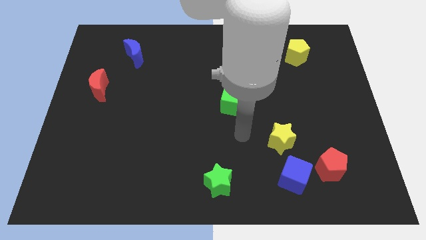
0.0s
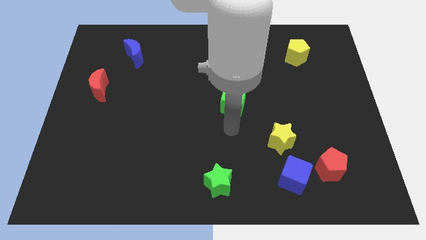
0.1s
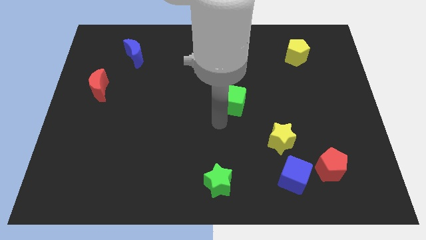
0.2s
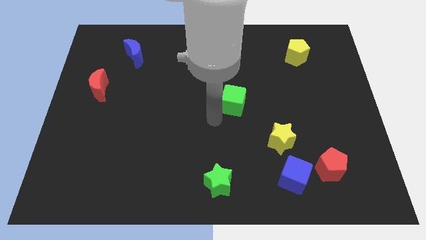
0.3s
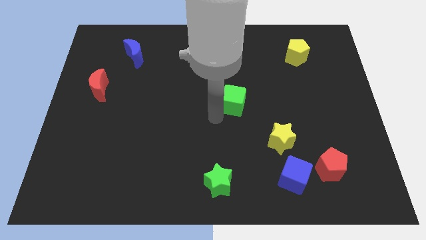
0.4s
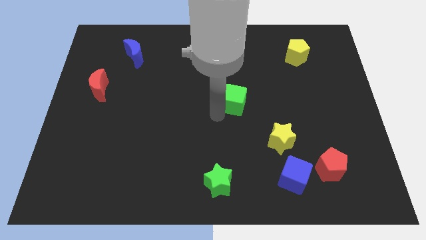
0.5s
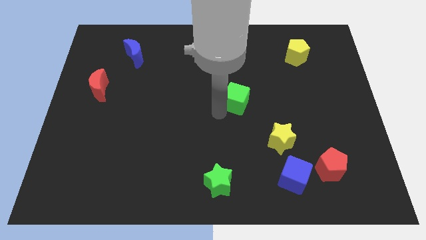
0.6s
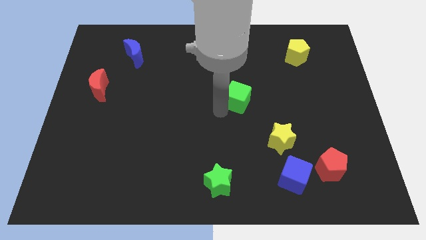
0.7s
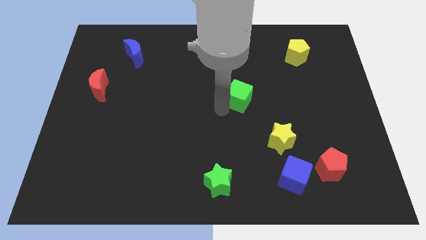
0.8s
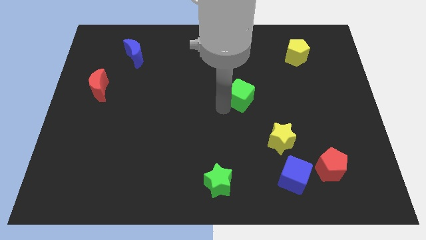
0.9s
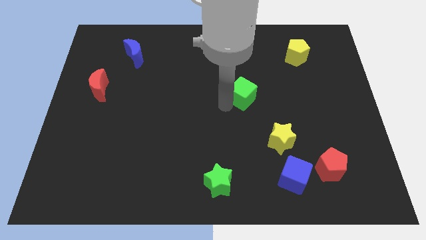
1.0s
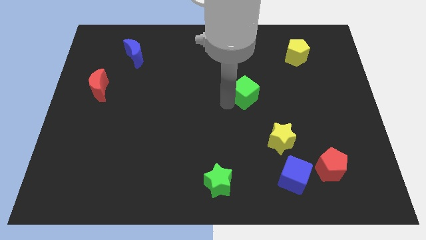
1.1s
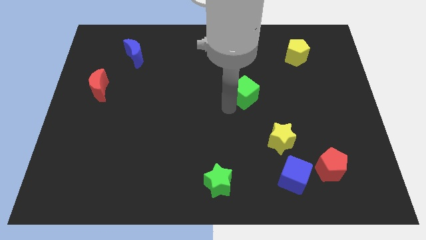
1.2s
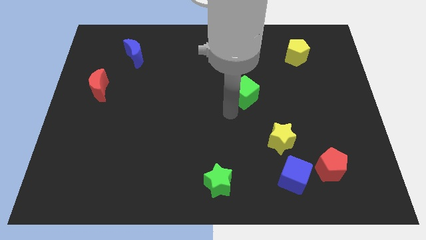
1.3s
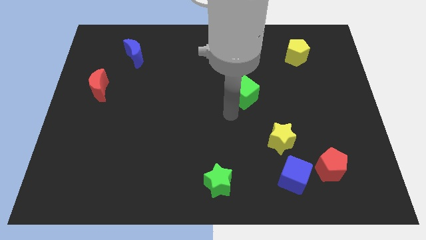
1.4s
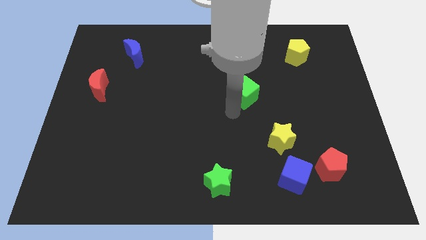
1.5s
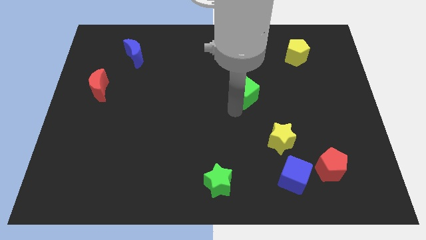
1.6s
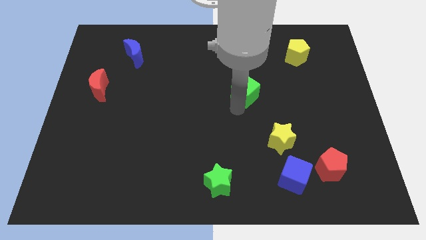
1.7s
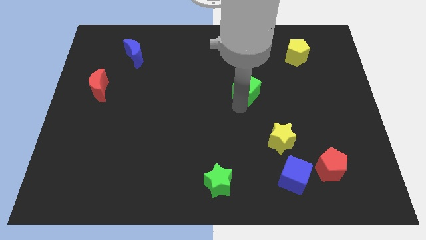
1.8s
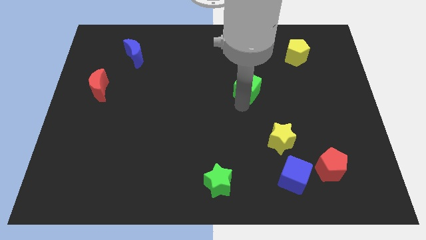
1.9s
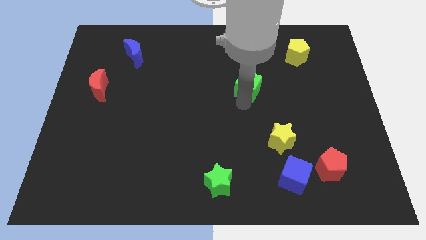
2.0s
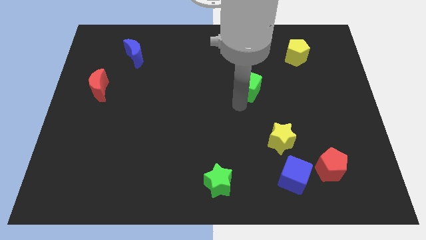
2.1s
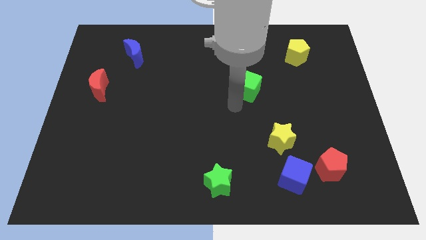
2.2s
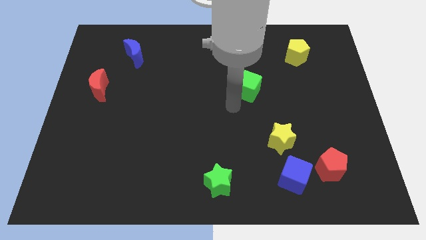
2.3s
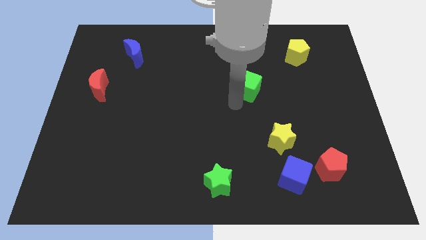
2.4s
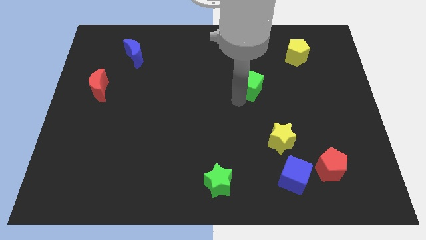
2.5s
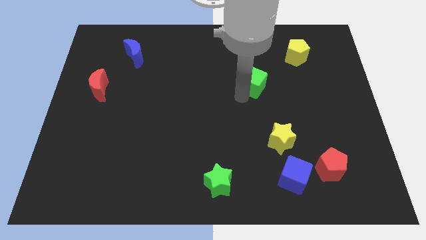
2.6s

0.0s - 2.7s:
slightly move the green cube upwards and then right

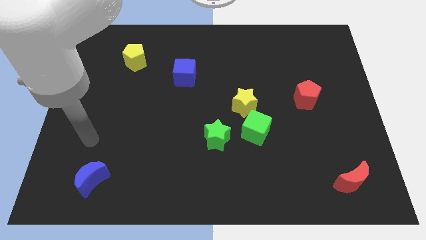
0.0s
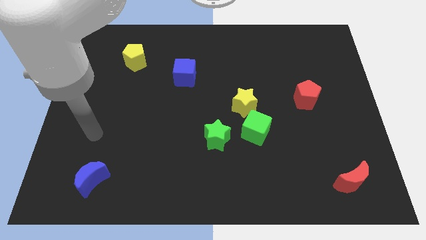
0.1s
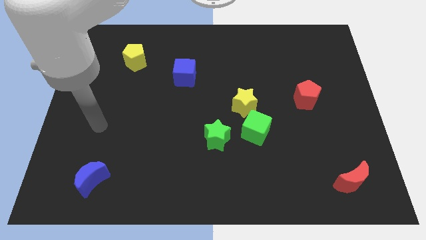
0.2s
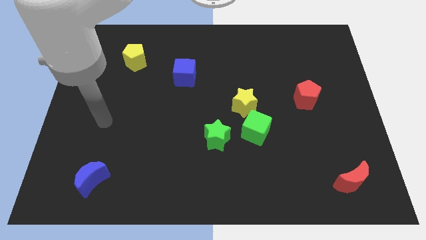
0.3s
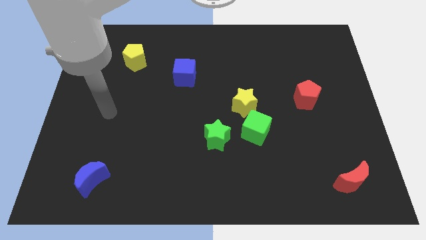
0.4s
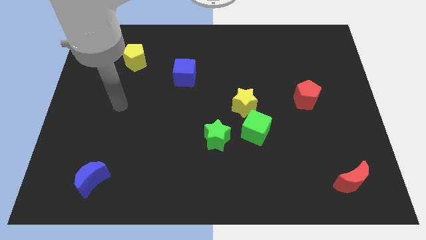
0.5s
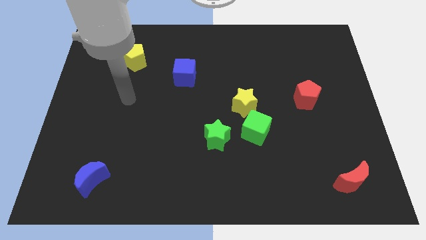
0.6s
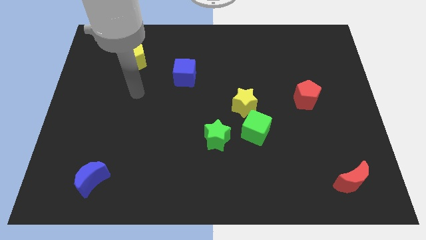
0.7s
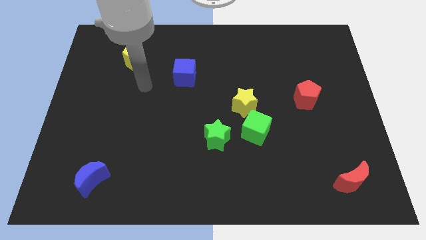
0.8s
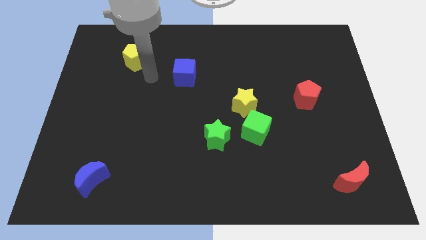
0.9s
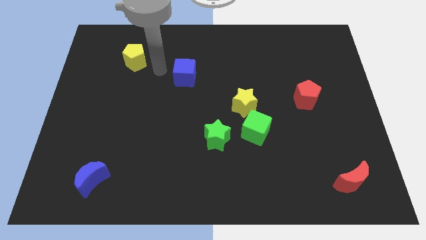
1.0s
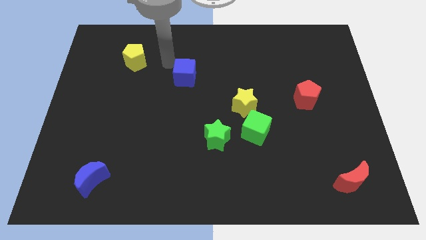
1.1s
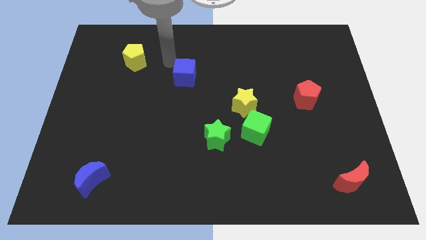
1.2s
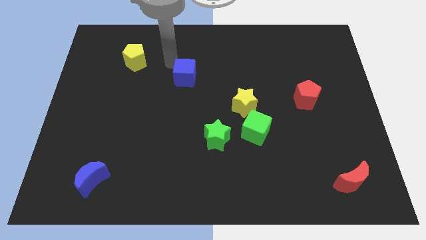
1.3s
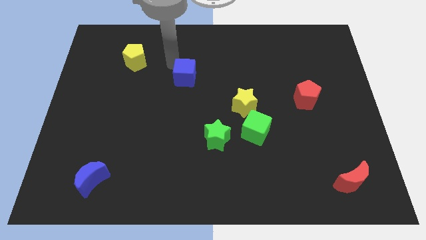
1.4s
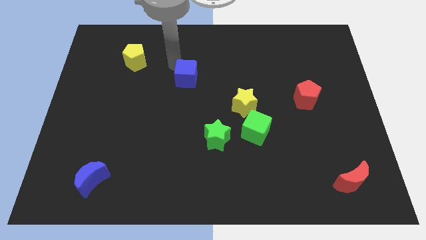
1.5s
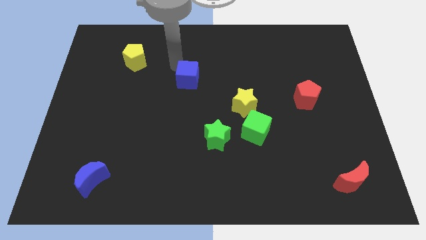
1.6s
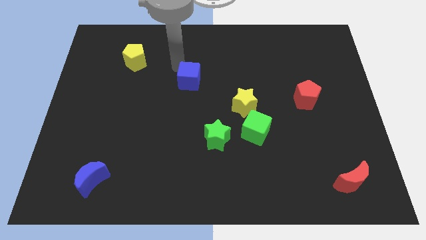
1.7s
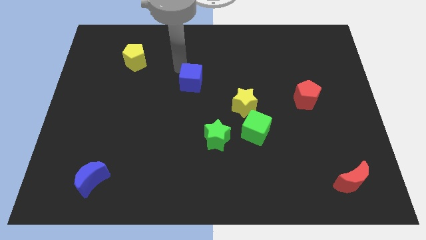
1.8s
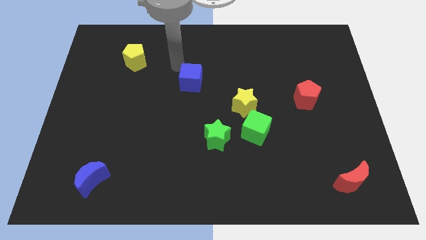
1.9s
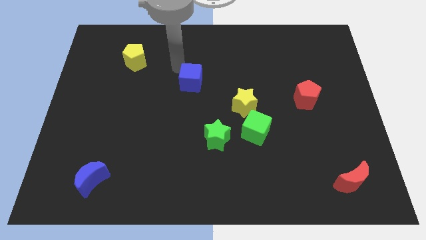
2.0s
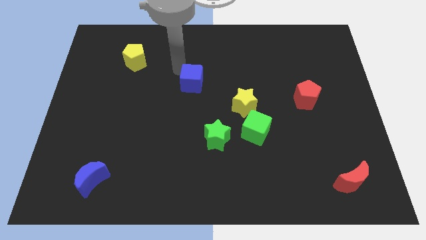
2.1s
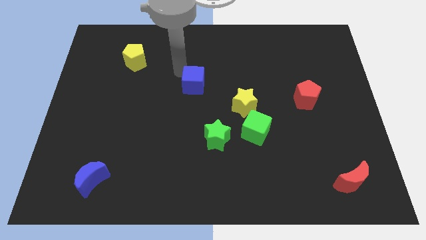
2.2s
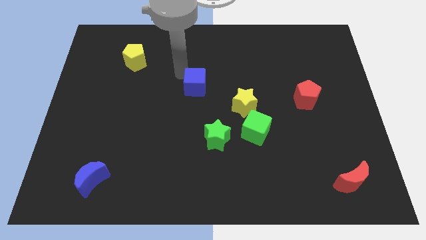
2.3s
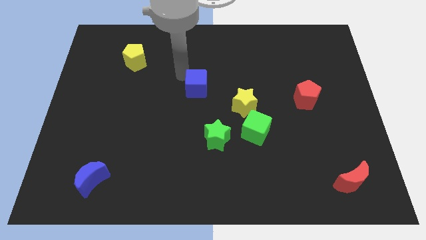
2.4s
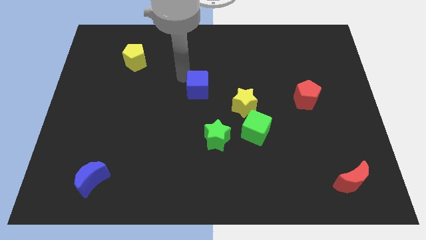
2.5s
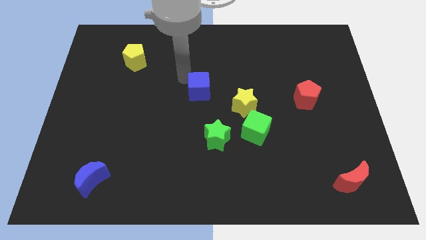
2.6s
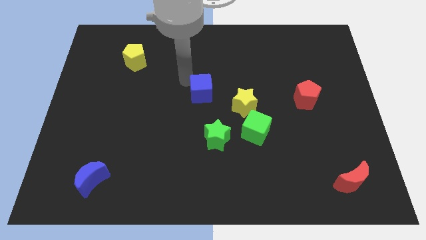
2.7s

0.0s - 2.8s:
slightly slide the blue cube down and right

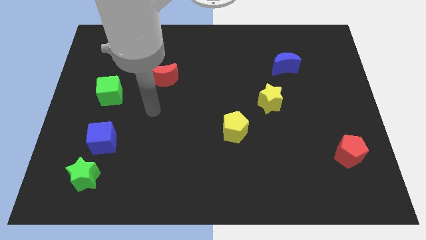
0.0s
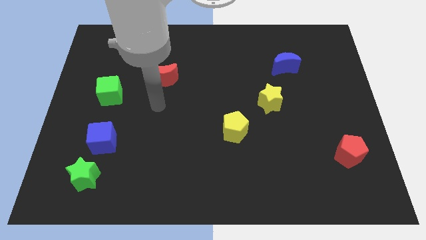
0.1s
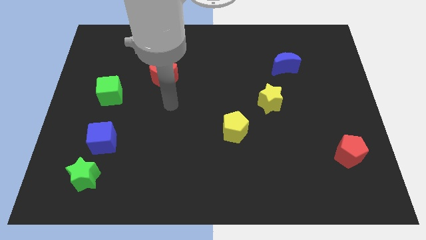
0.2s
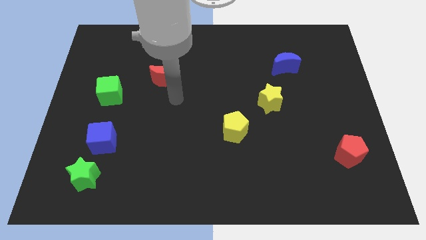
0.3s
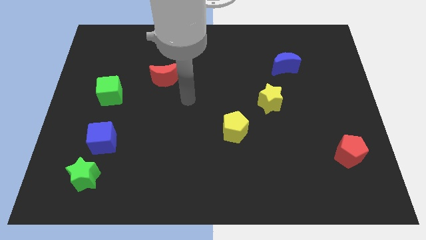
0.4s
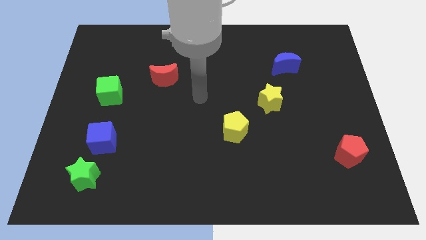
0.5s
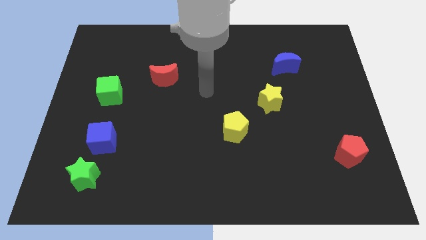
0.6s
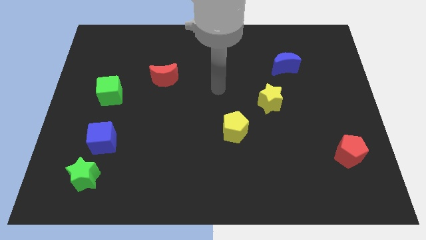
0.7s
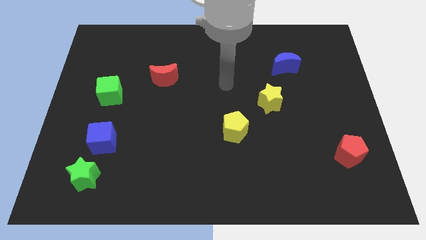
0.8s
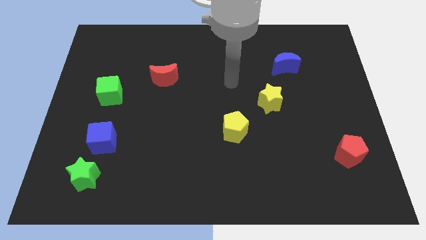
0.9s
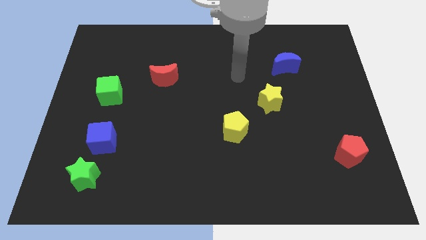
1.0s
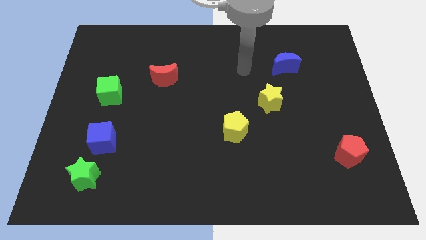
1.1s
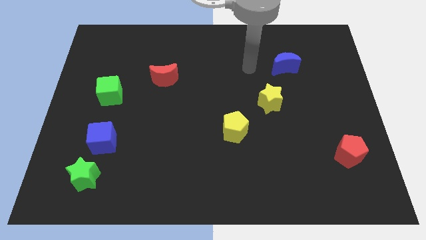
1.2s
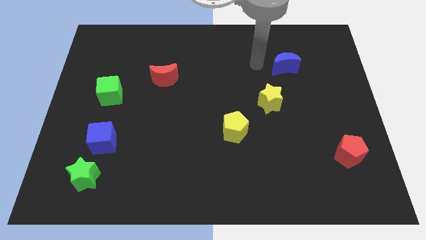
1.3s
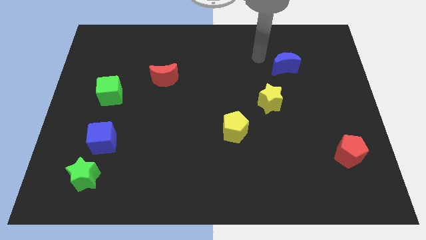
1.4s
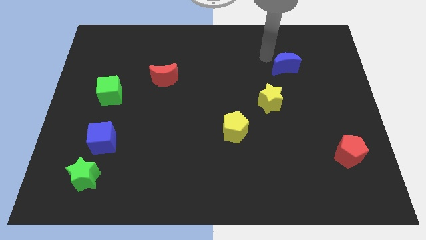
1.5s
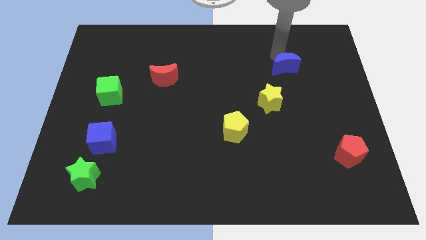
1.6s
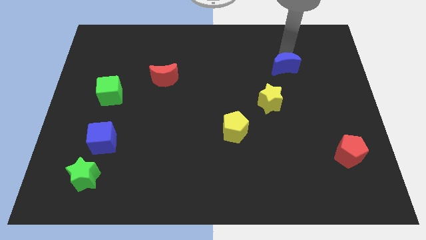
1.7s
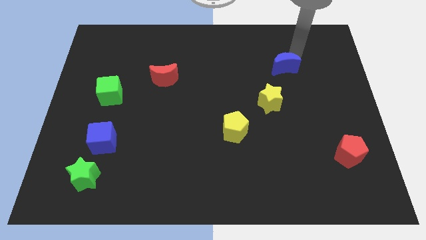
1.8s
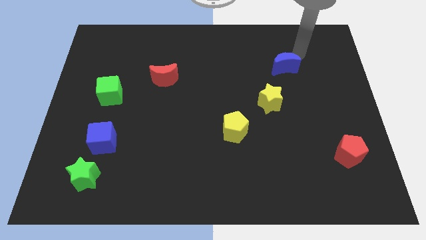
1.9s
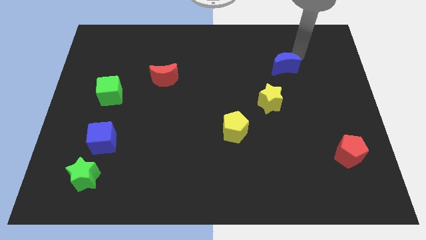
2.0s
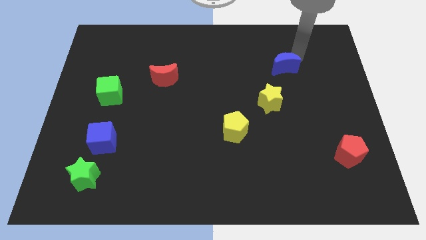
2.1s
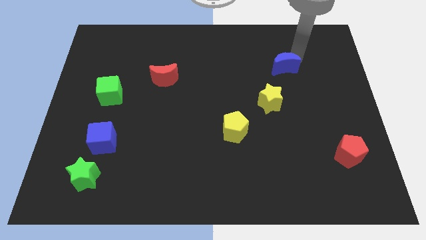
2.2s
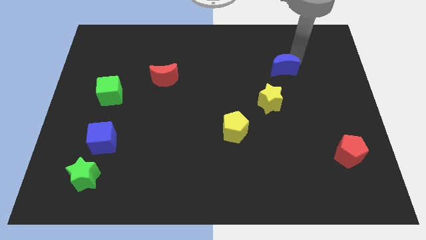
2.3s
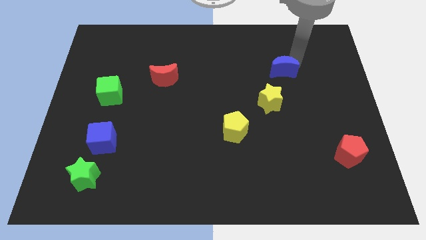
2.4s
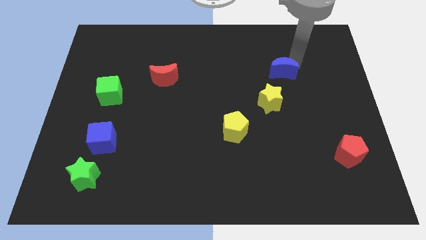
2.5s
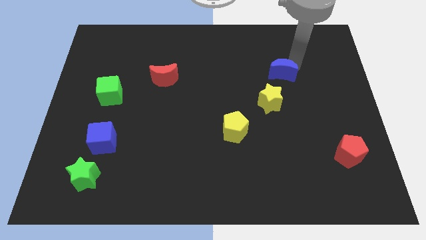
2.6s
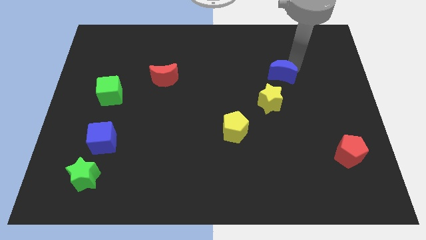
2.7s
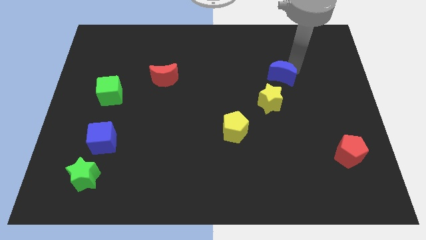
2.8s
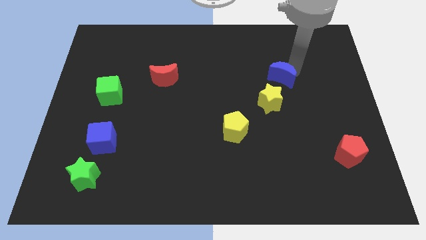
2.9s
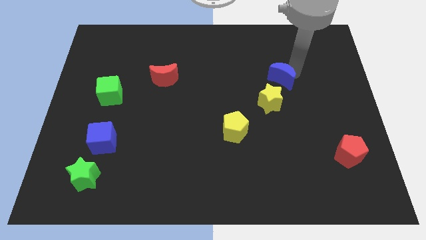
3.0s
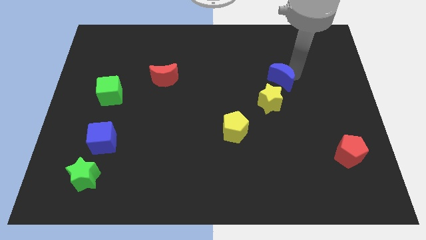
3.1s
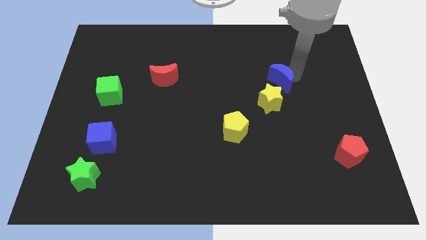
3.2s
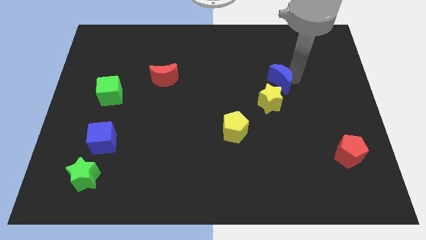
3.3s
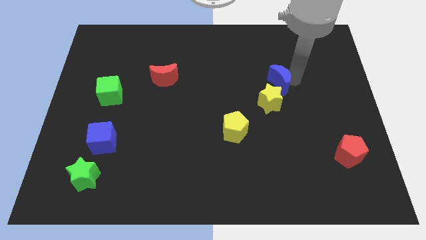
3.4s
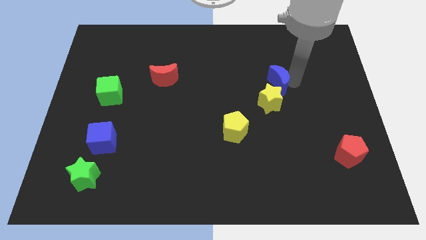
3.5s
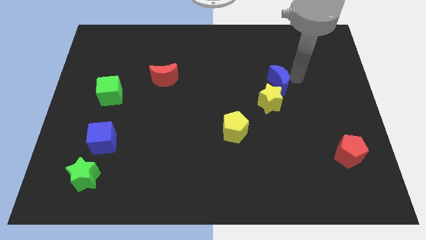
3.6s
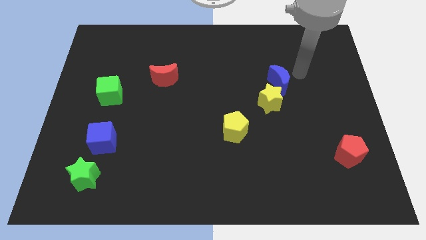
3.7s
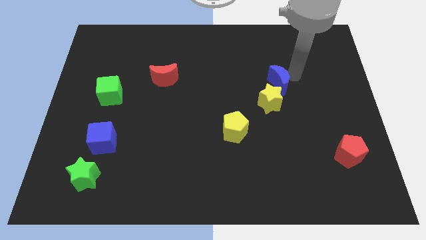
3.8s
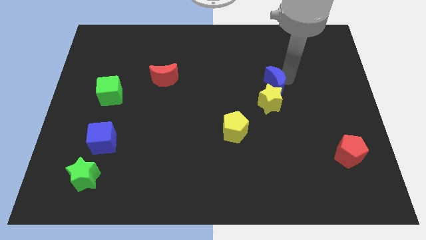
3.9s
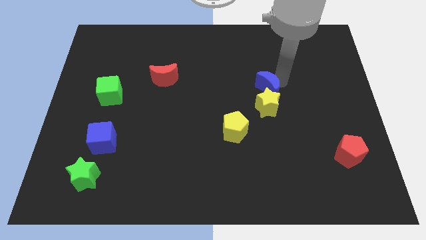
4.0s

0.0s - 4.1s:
move the blue moon down and left a little bit
